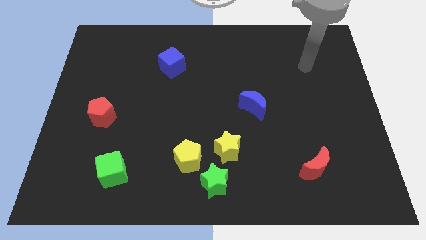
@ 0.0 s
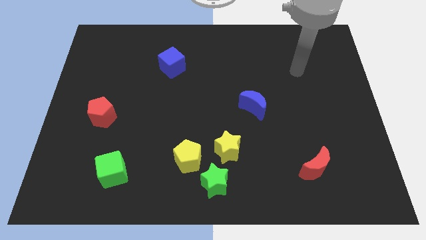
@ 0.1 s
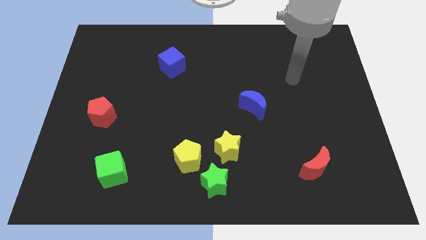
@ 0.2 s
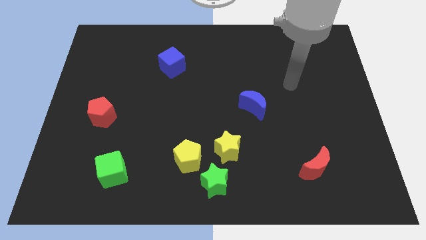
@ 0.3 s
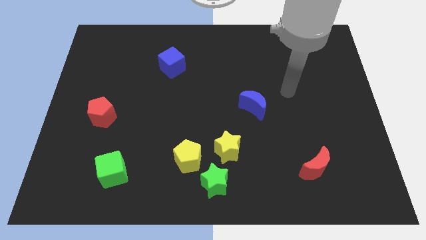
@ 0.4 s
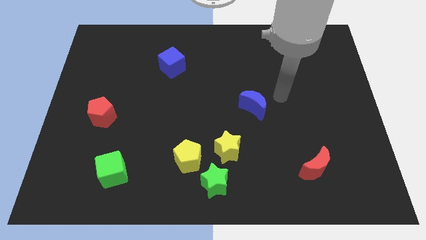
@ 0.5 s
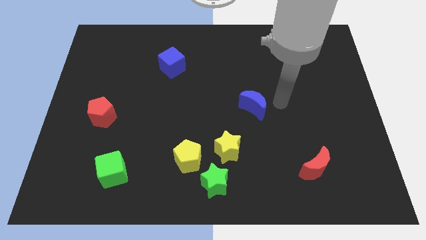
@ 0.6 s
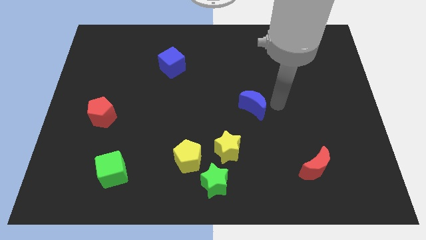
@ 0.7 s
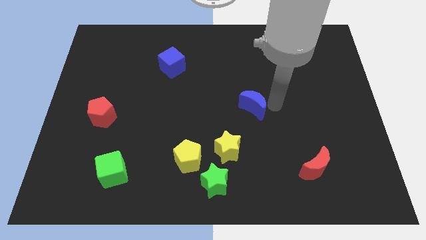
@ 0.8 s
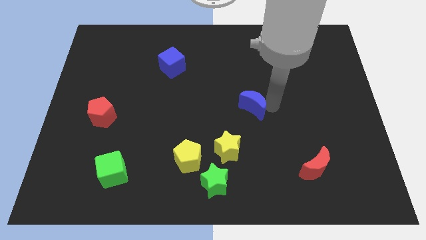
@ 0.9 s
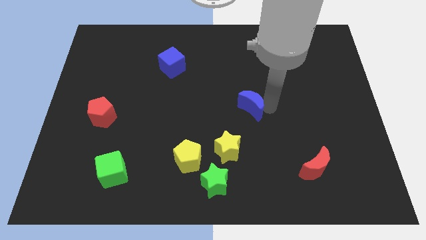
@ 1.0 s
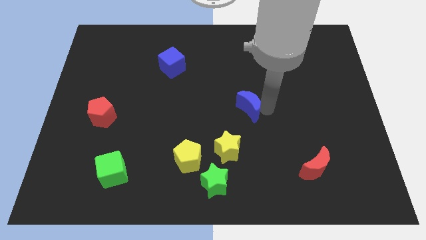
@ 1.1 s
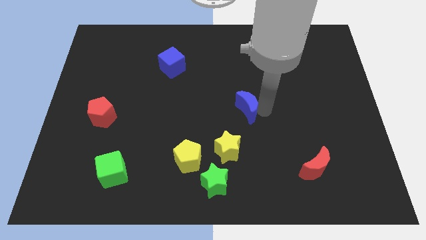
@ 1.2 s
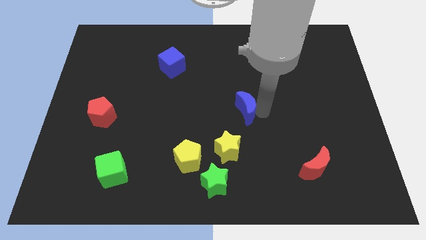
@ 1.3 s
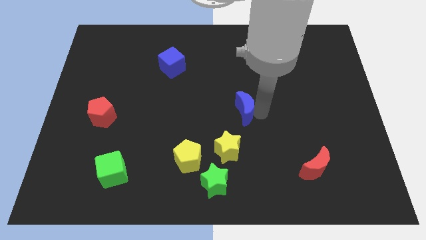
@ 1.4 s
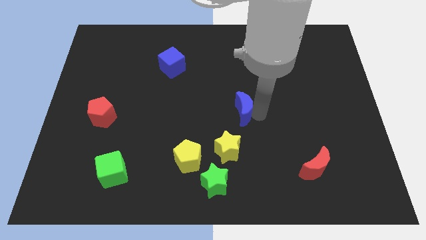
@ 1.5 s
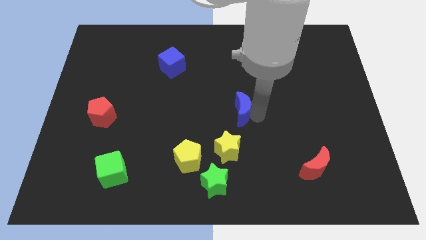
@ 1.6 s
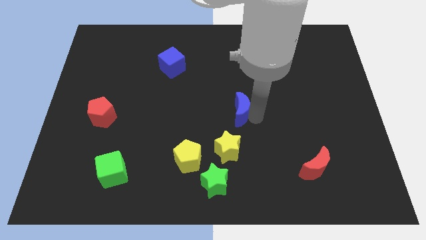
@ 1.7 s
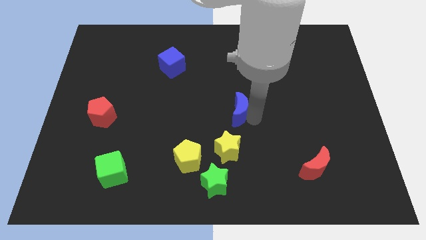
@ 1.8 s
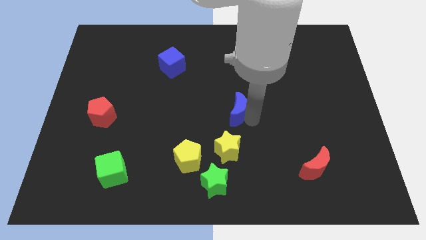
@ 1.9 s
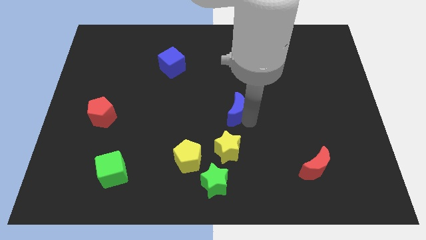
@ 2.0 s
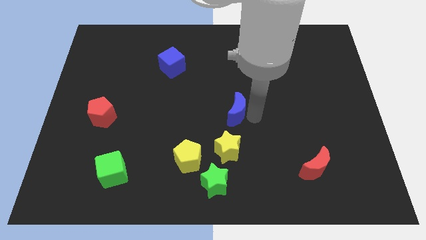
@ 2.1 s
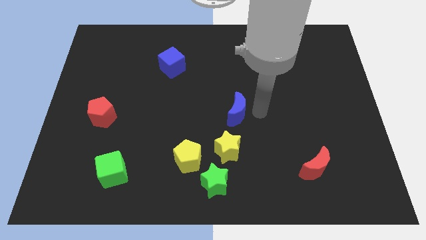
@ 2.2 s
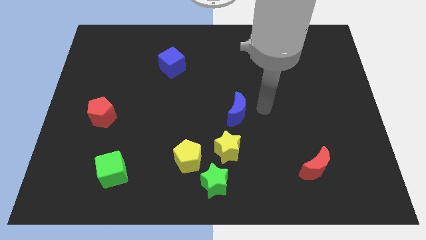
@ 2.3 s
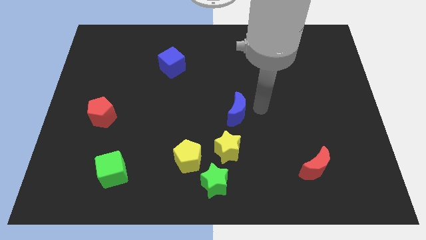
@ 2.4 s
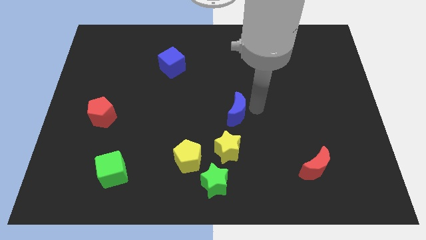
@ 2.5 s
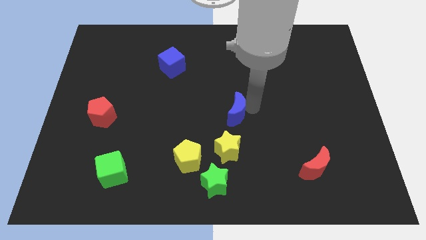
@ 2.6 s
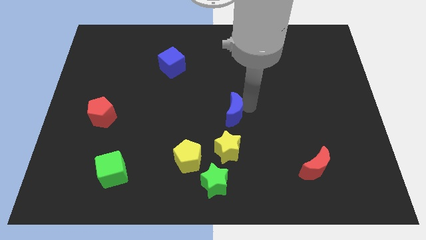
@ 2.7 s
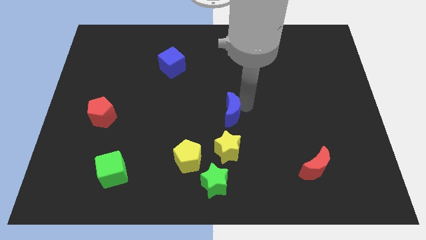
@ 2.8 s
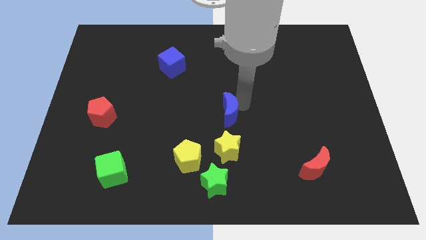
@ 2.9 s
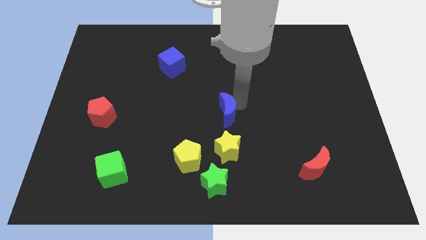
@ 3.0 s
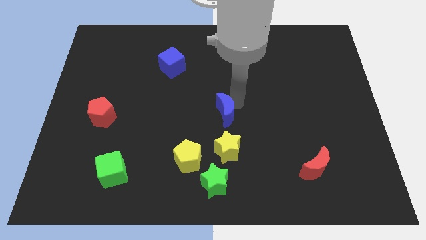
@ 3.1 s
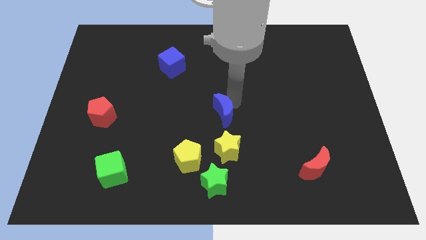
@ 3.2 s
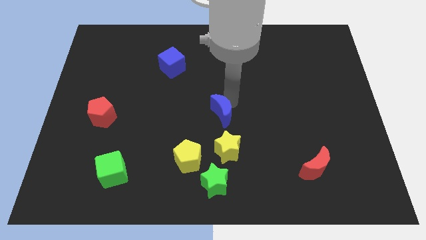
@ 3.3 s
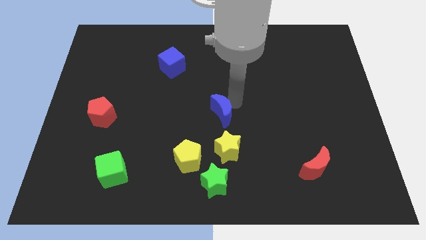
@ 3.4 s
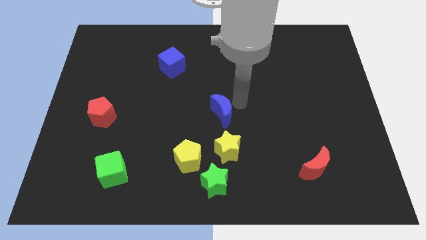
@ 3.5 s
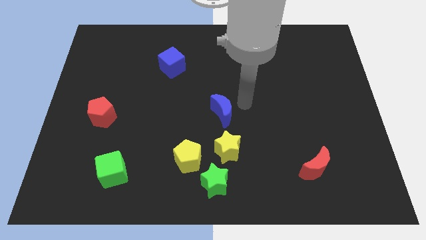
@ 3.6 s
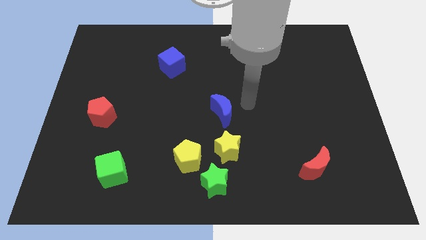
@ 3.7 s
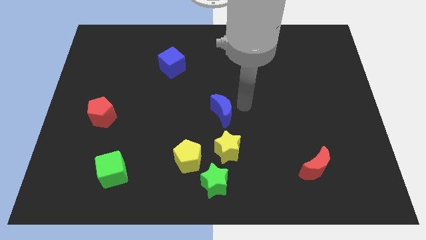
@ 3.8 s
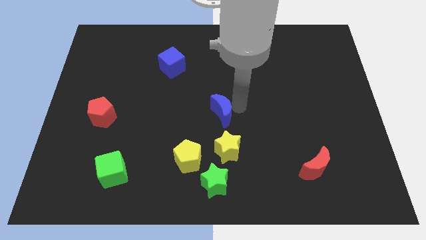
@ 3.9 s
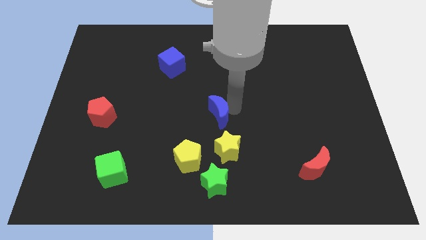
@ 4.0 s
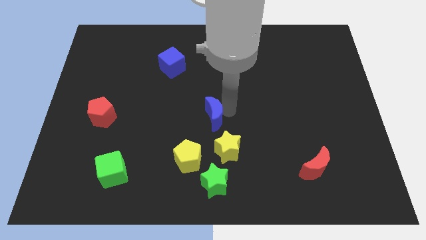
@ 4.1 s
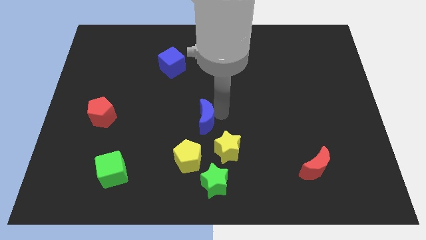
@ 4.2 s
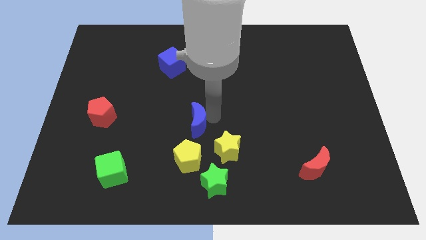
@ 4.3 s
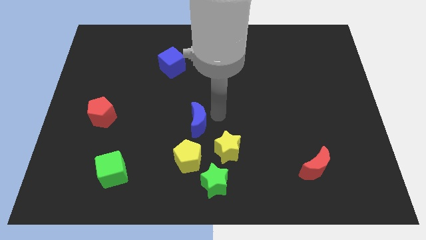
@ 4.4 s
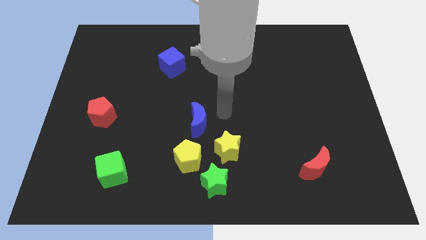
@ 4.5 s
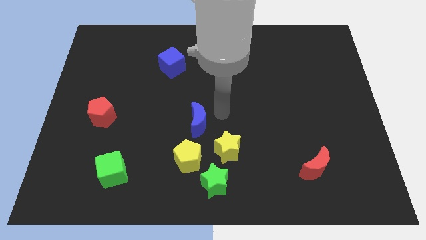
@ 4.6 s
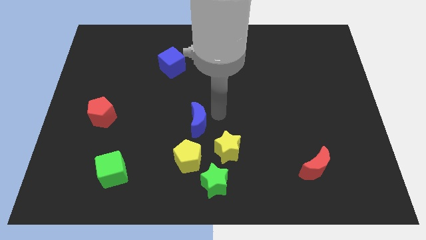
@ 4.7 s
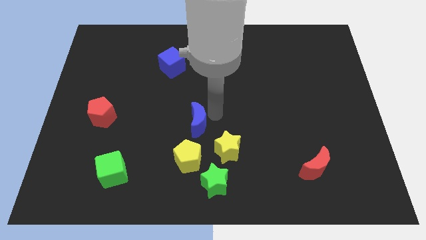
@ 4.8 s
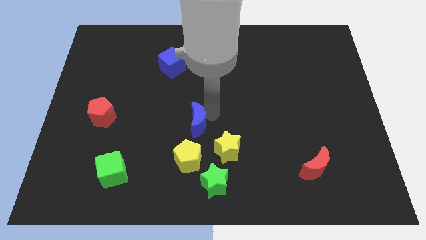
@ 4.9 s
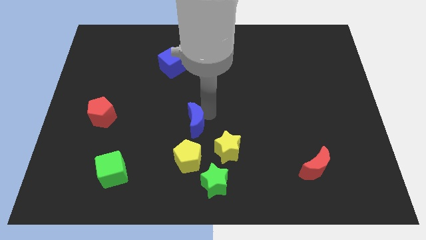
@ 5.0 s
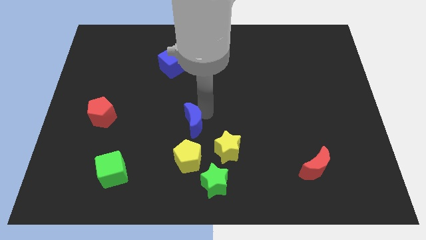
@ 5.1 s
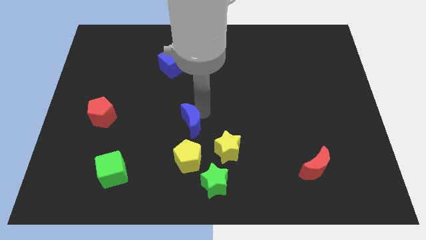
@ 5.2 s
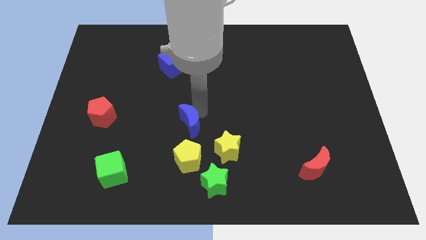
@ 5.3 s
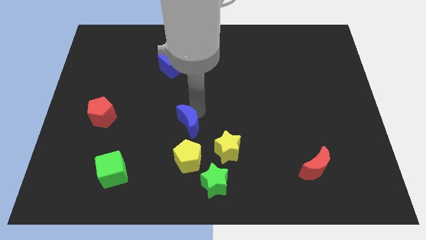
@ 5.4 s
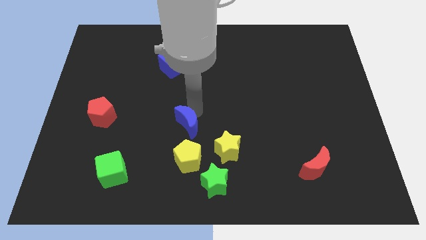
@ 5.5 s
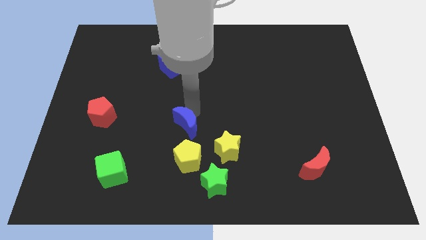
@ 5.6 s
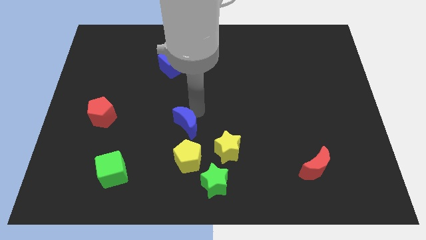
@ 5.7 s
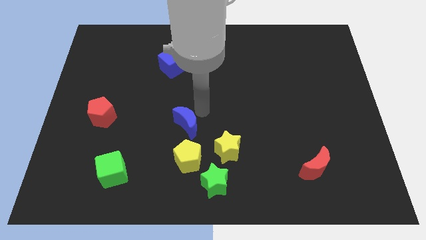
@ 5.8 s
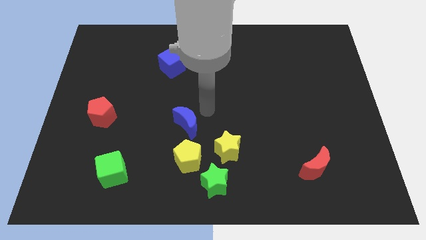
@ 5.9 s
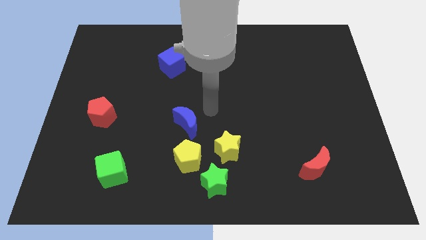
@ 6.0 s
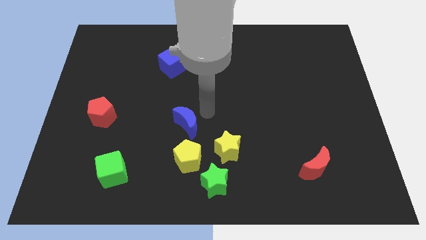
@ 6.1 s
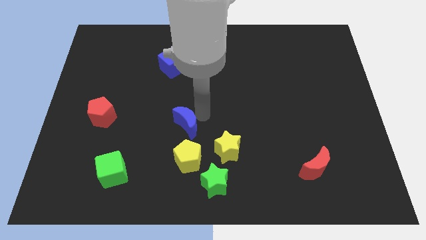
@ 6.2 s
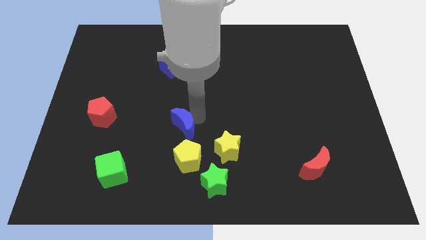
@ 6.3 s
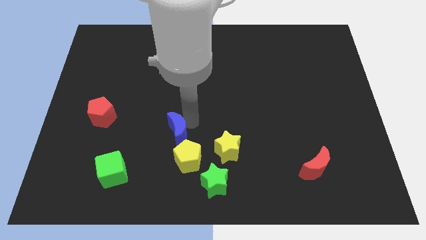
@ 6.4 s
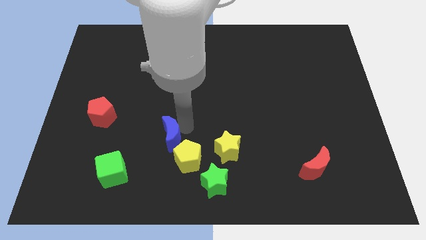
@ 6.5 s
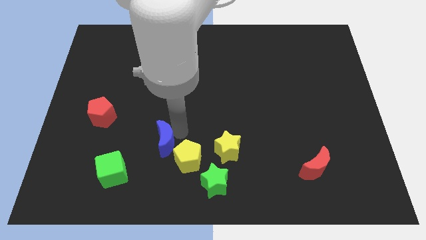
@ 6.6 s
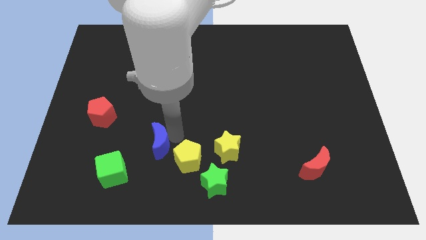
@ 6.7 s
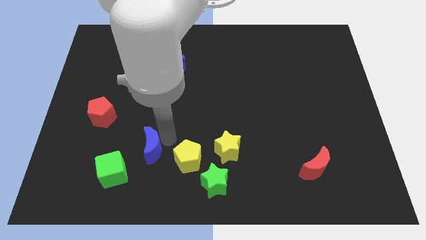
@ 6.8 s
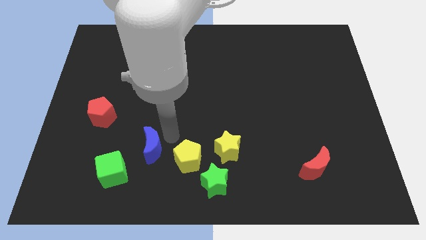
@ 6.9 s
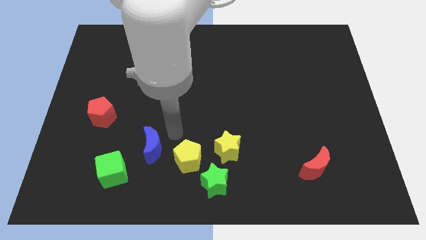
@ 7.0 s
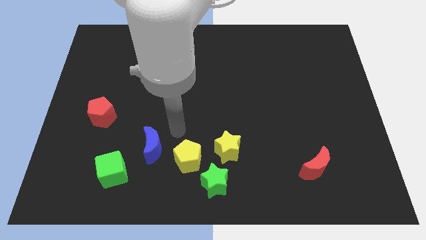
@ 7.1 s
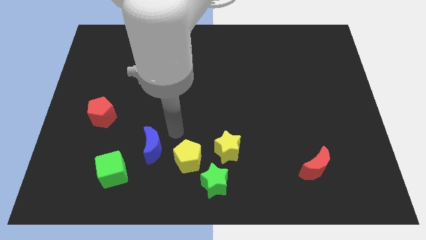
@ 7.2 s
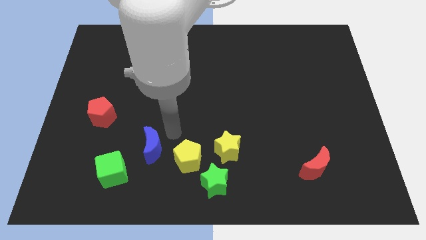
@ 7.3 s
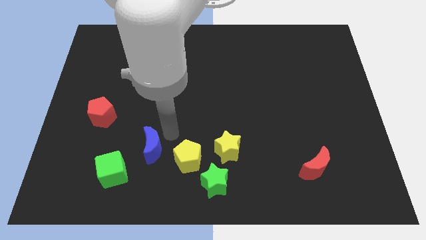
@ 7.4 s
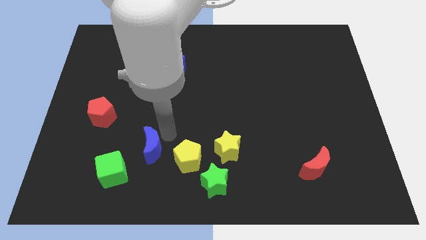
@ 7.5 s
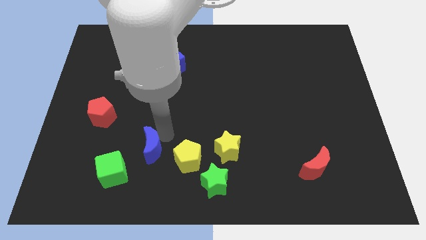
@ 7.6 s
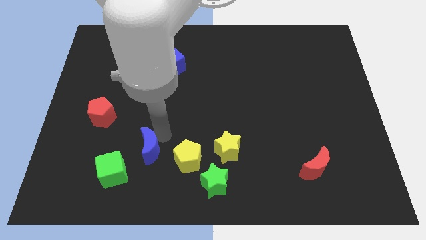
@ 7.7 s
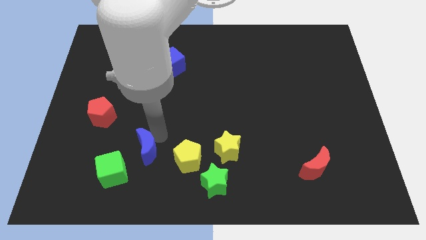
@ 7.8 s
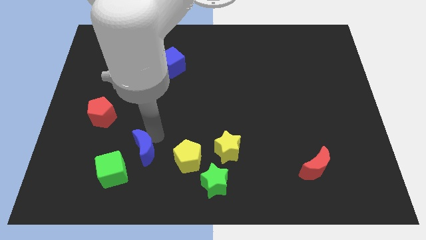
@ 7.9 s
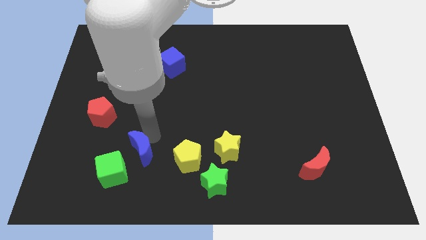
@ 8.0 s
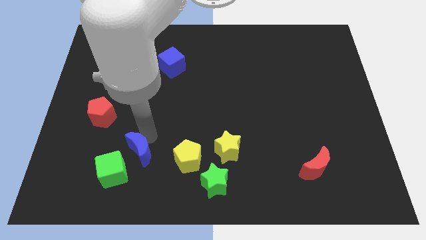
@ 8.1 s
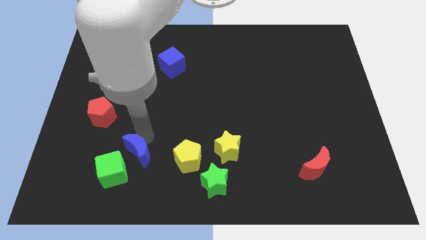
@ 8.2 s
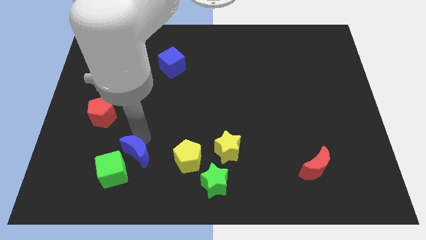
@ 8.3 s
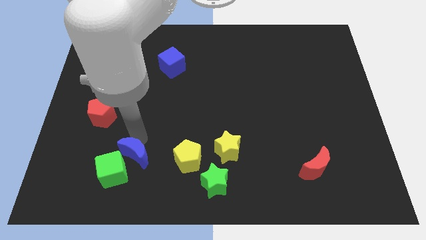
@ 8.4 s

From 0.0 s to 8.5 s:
move the blue moon close to the green cube
